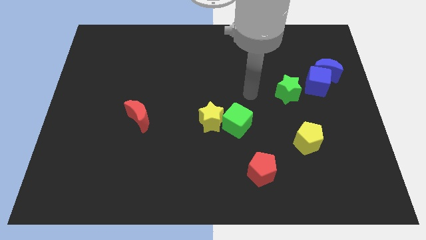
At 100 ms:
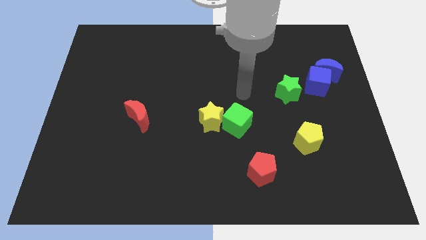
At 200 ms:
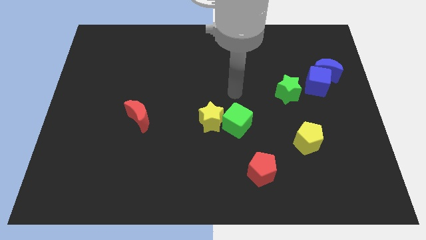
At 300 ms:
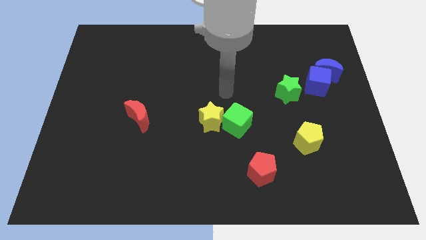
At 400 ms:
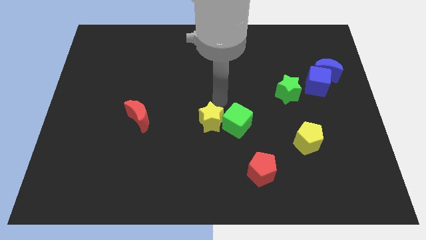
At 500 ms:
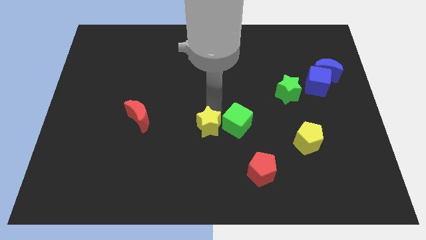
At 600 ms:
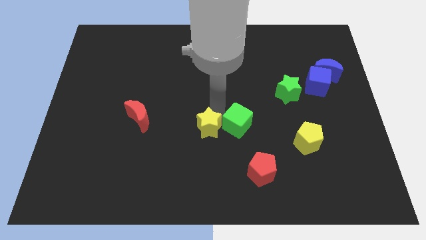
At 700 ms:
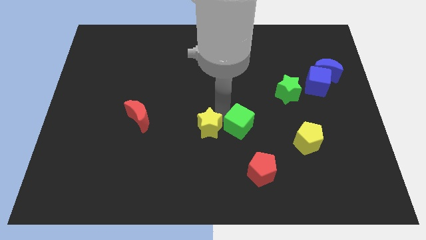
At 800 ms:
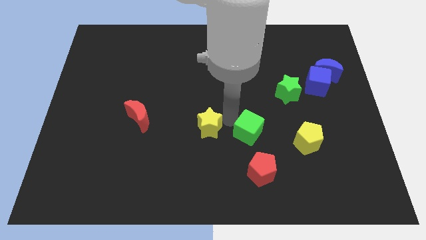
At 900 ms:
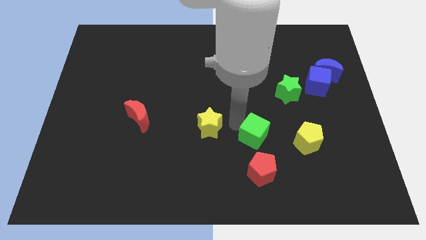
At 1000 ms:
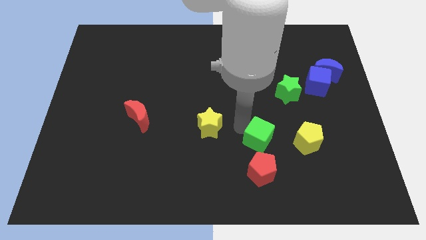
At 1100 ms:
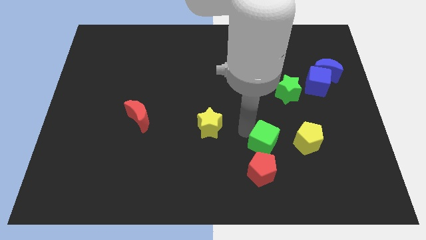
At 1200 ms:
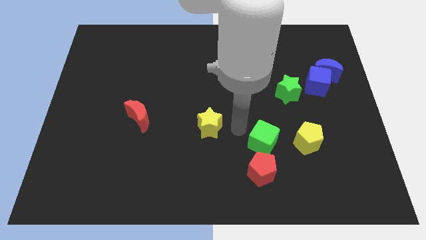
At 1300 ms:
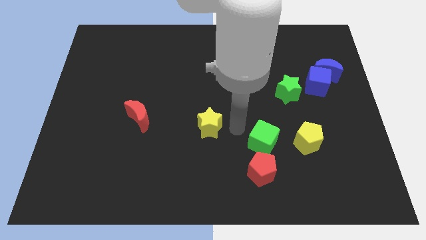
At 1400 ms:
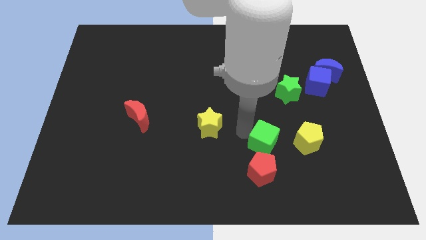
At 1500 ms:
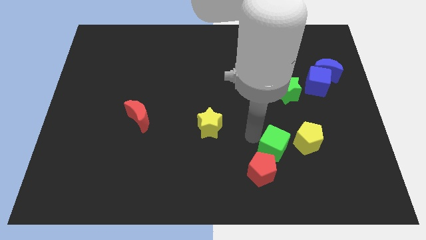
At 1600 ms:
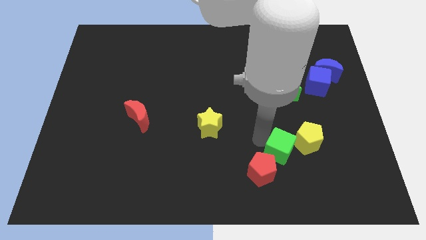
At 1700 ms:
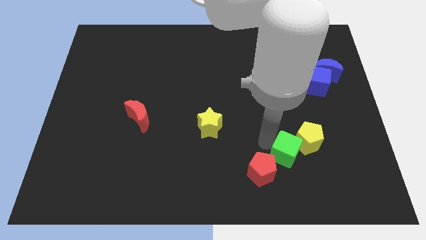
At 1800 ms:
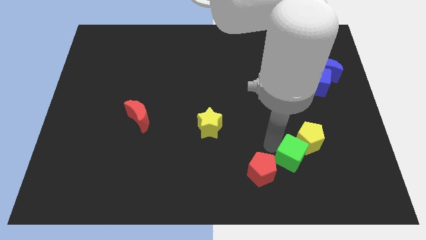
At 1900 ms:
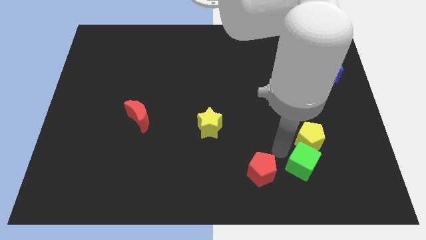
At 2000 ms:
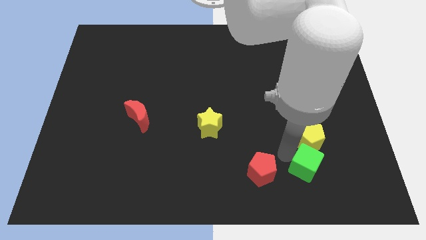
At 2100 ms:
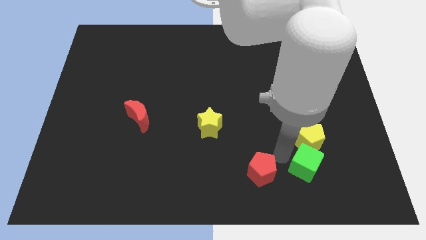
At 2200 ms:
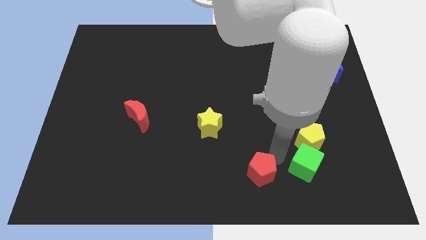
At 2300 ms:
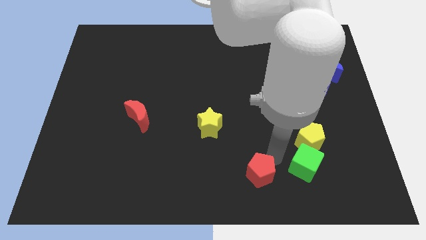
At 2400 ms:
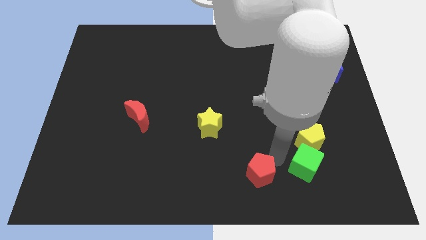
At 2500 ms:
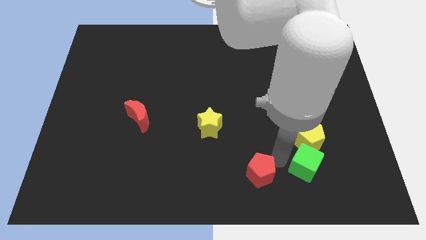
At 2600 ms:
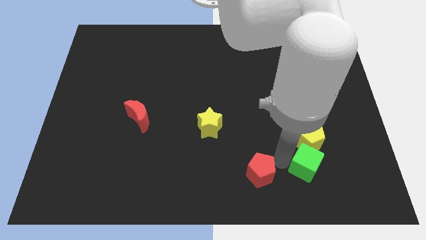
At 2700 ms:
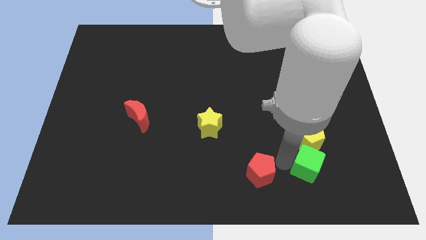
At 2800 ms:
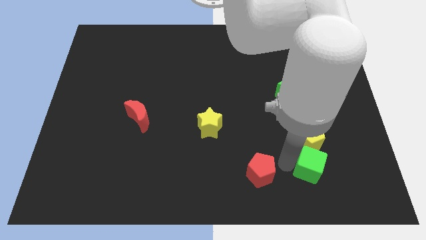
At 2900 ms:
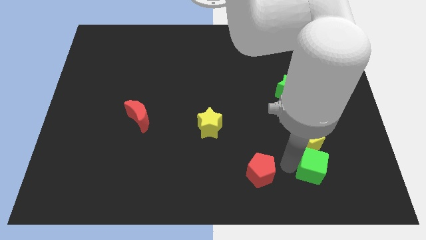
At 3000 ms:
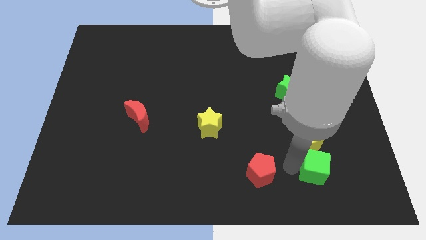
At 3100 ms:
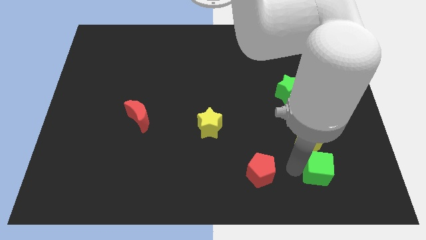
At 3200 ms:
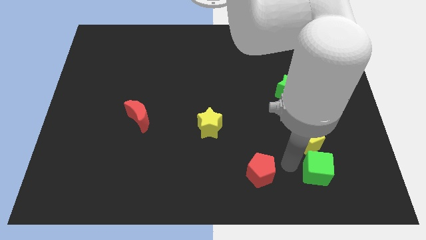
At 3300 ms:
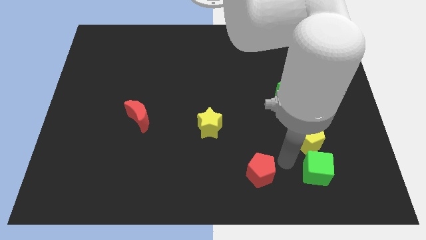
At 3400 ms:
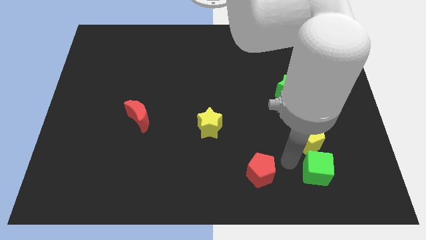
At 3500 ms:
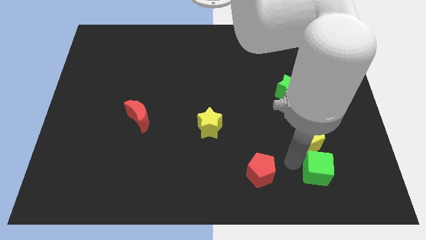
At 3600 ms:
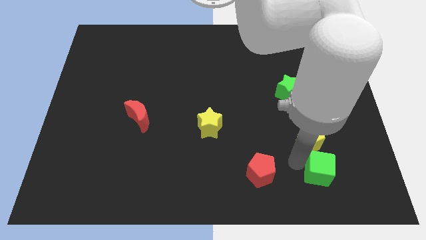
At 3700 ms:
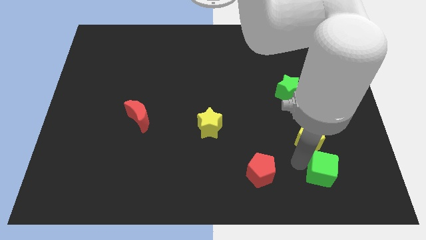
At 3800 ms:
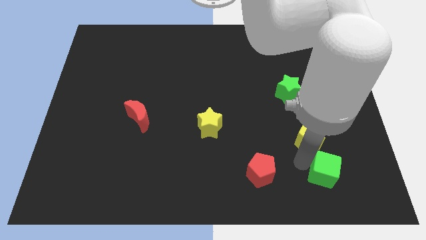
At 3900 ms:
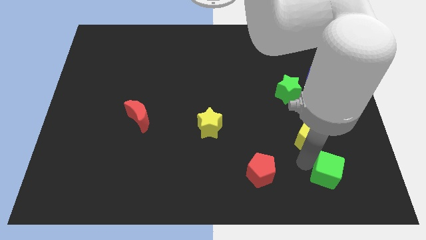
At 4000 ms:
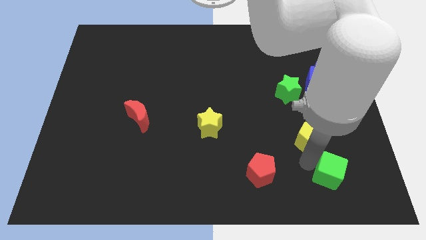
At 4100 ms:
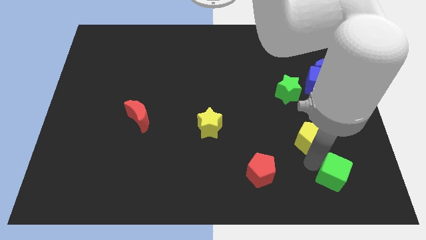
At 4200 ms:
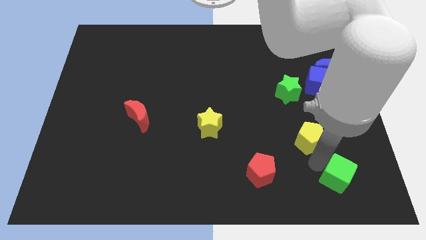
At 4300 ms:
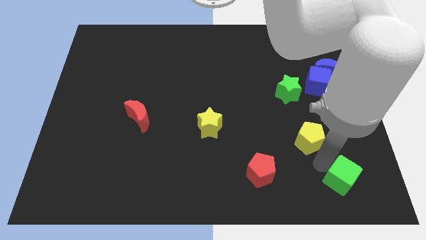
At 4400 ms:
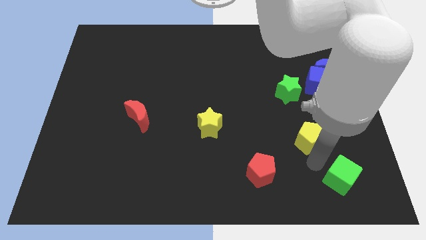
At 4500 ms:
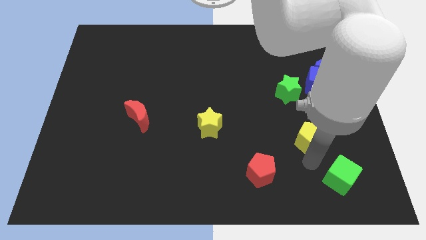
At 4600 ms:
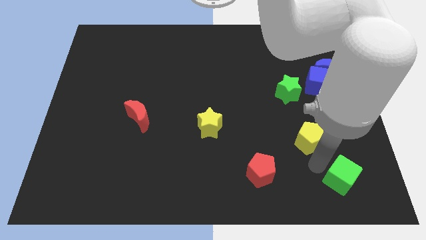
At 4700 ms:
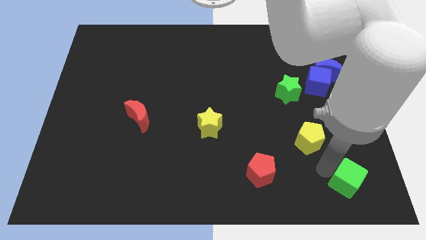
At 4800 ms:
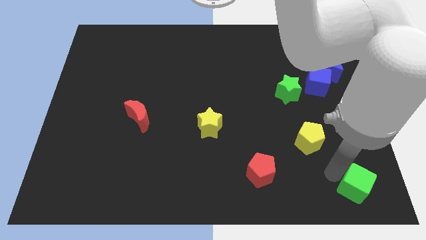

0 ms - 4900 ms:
move the green cube to the bottom right

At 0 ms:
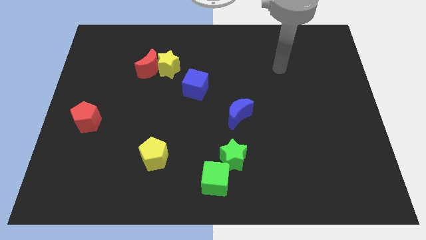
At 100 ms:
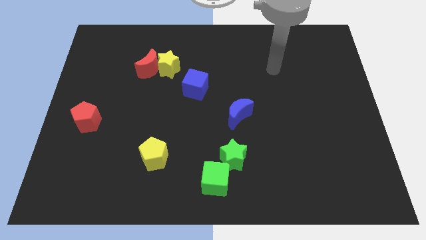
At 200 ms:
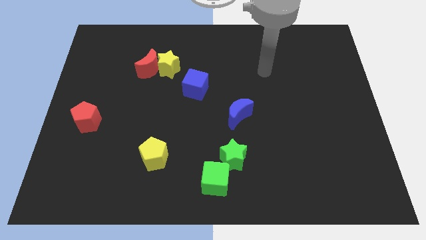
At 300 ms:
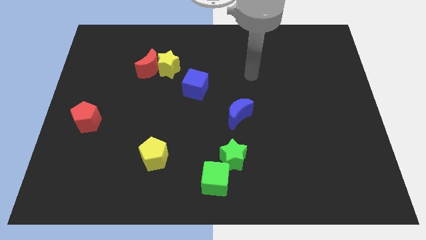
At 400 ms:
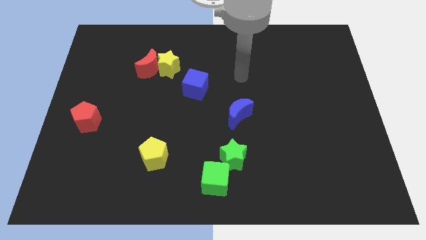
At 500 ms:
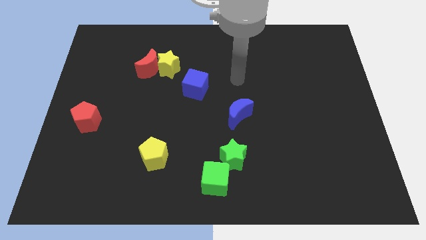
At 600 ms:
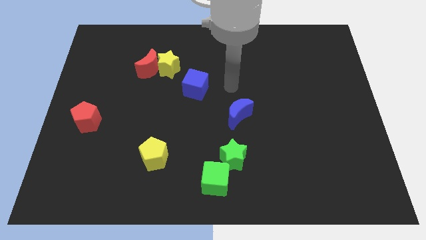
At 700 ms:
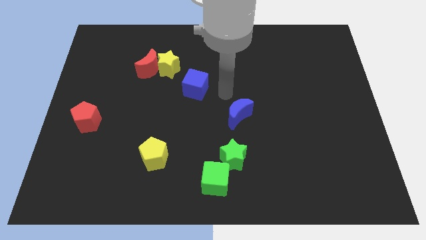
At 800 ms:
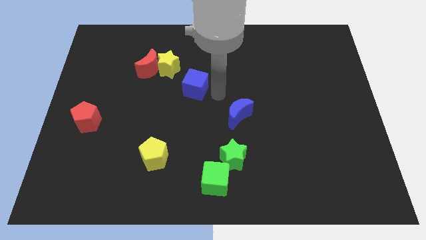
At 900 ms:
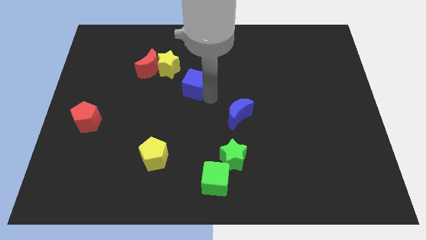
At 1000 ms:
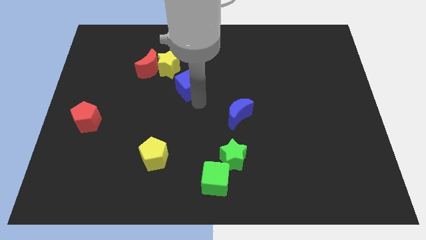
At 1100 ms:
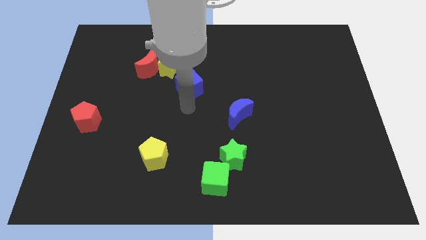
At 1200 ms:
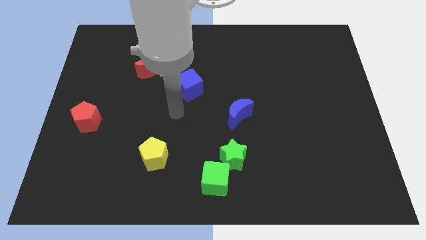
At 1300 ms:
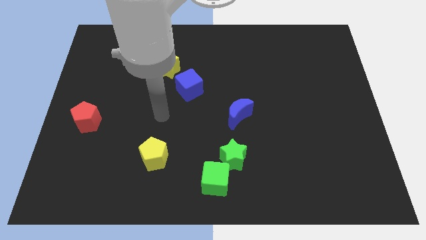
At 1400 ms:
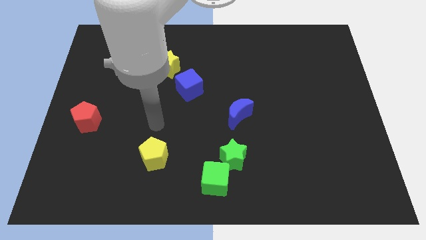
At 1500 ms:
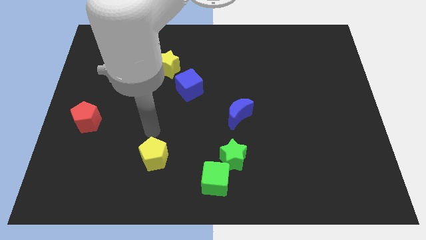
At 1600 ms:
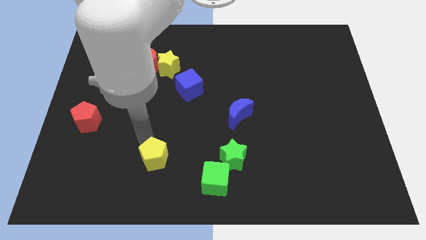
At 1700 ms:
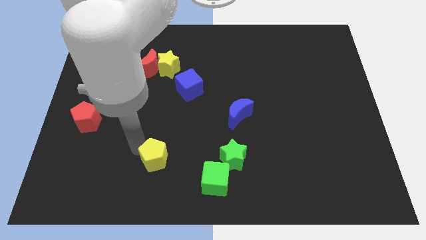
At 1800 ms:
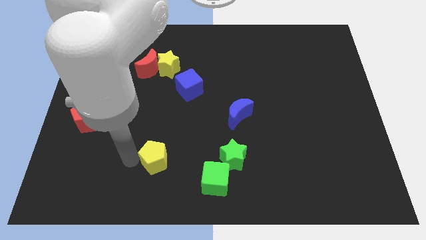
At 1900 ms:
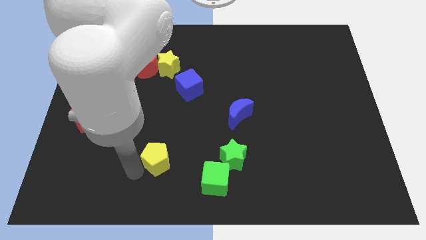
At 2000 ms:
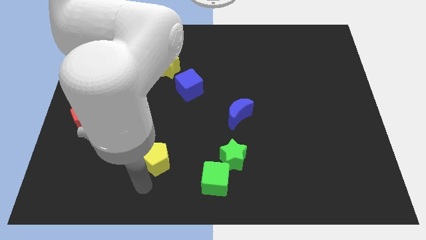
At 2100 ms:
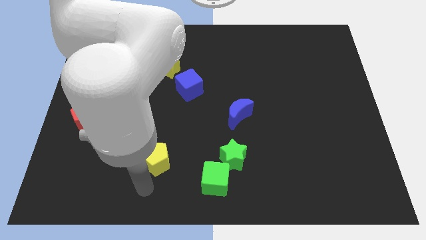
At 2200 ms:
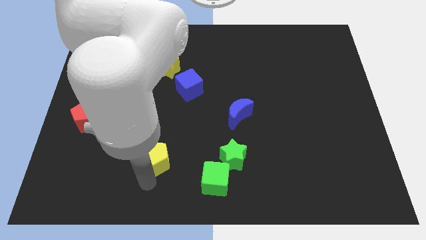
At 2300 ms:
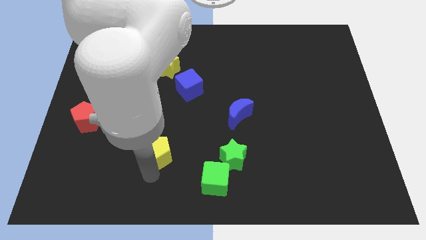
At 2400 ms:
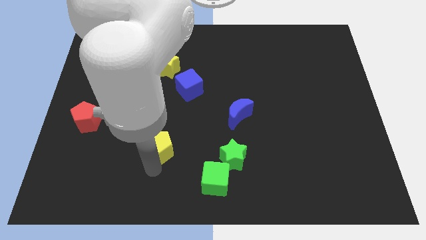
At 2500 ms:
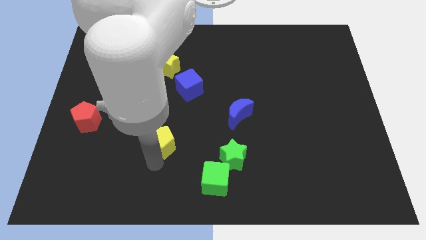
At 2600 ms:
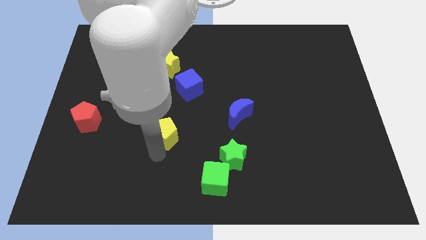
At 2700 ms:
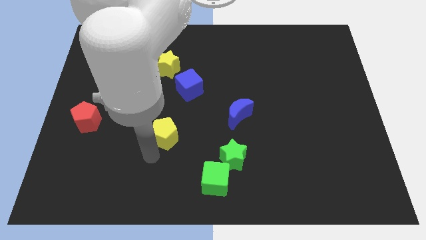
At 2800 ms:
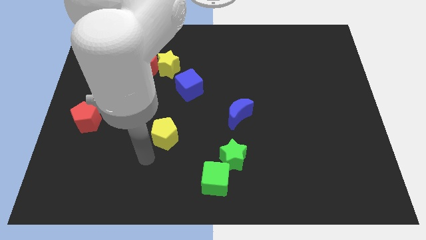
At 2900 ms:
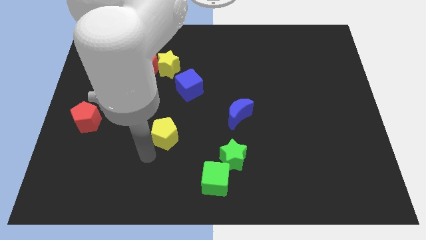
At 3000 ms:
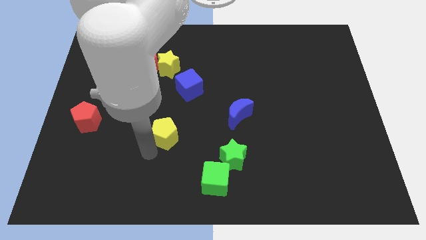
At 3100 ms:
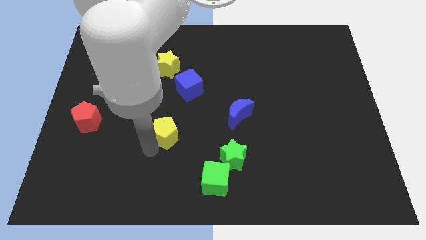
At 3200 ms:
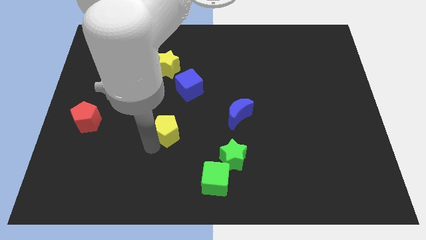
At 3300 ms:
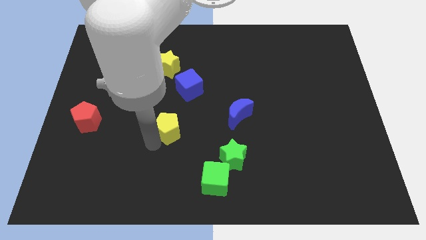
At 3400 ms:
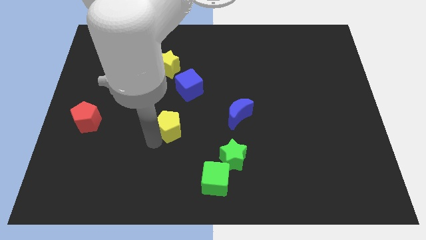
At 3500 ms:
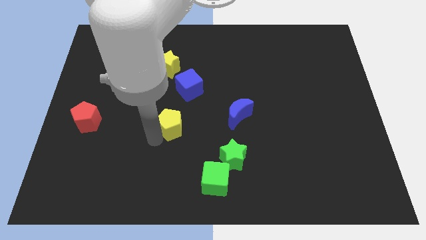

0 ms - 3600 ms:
put the yellow pentagon to the center of the board
